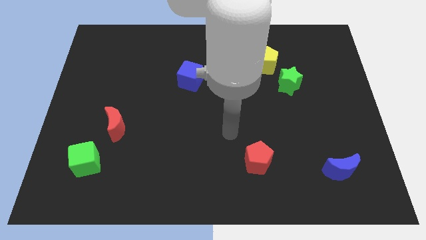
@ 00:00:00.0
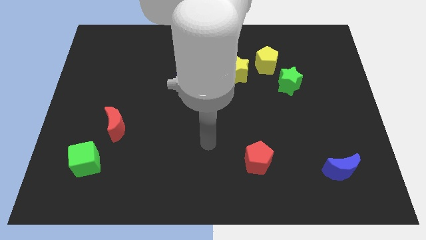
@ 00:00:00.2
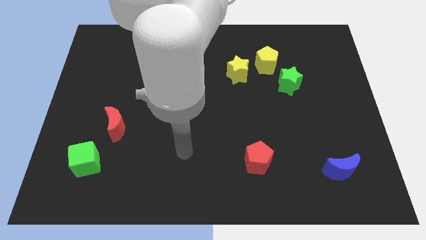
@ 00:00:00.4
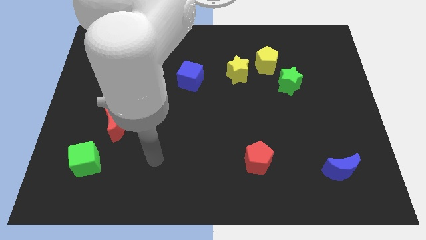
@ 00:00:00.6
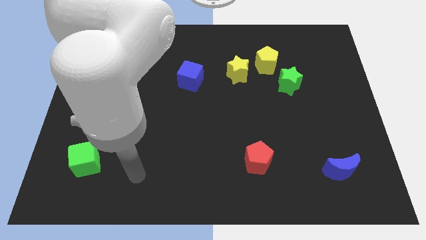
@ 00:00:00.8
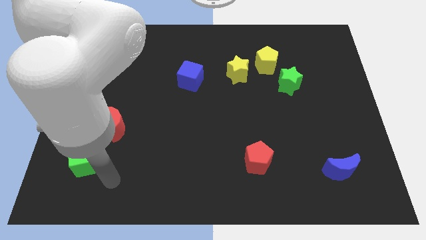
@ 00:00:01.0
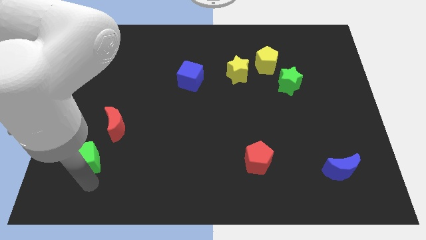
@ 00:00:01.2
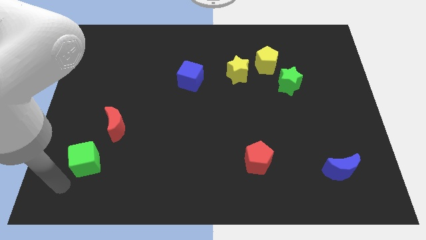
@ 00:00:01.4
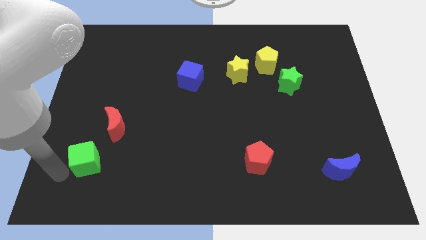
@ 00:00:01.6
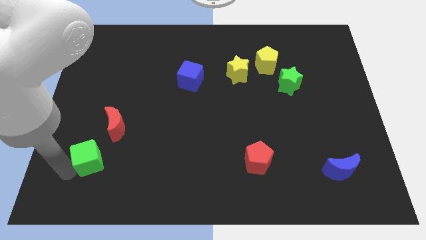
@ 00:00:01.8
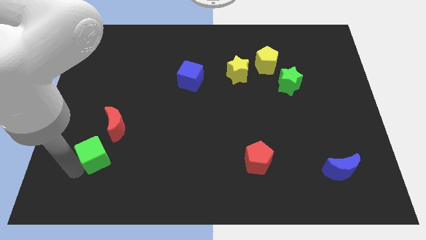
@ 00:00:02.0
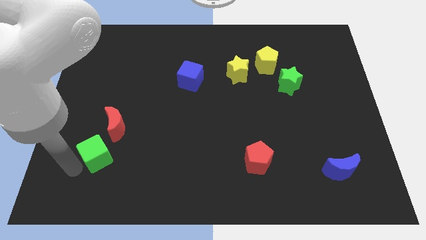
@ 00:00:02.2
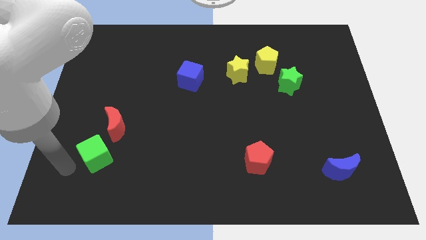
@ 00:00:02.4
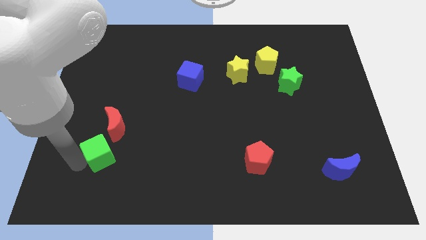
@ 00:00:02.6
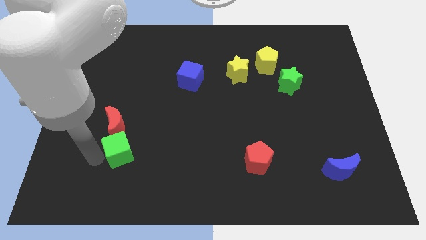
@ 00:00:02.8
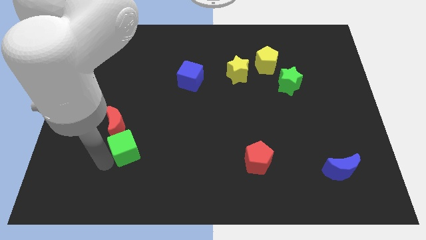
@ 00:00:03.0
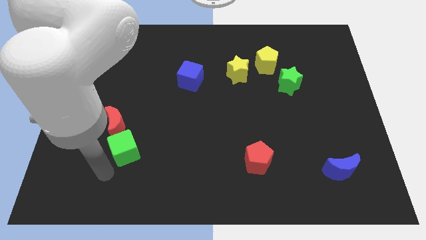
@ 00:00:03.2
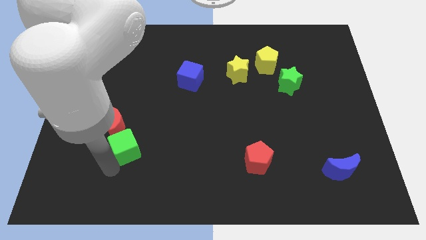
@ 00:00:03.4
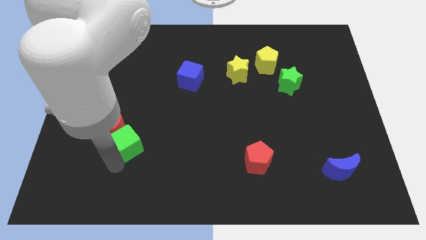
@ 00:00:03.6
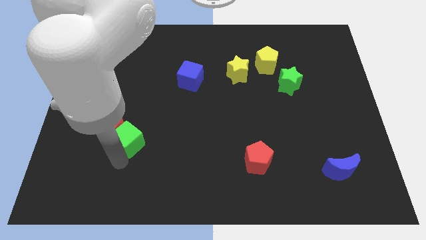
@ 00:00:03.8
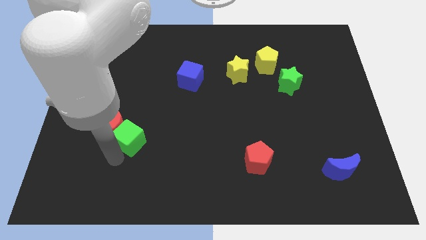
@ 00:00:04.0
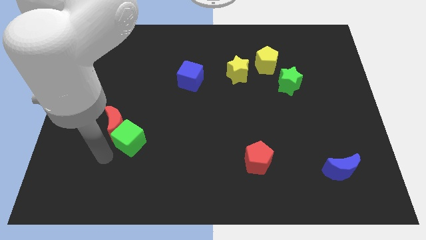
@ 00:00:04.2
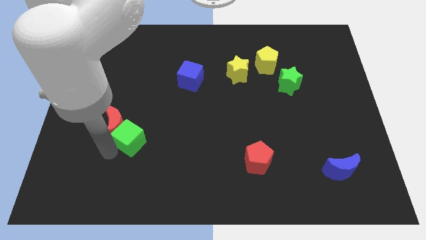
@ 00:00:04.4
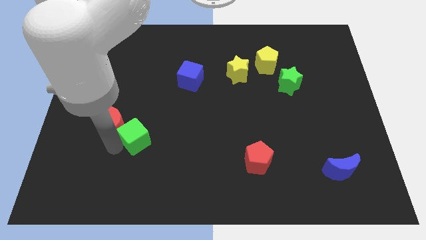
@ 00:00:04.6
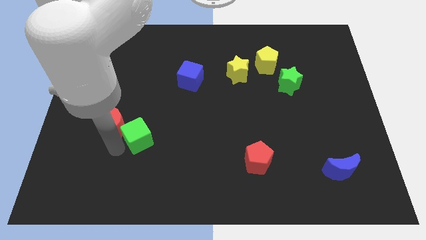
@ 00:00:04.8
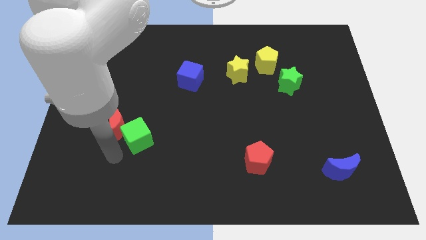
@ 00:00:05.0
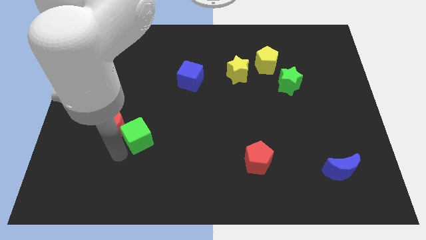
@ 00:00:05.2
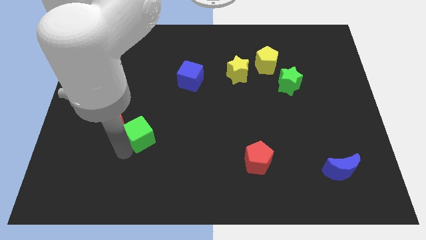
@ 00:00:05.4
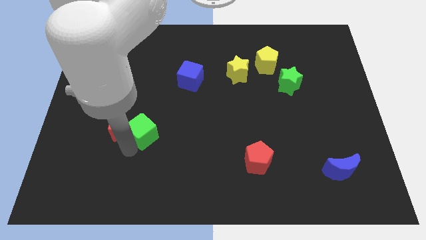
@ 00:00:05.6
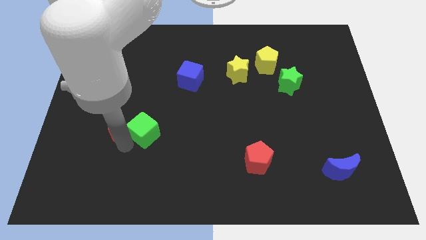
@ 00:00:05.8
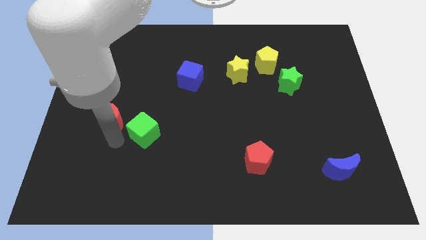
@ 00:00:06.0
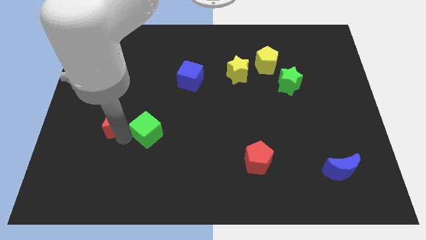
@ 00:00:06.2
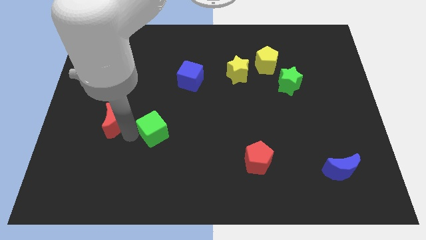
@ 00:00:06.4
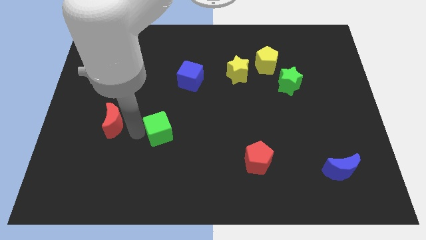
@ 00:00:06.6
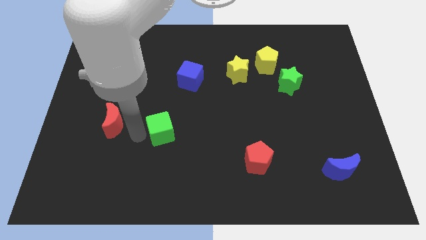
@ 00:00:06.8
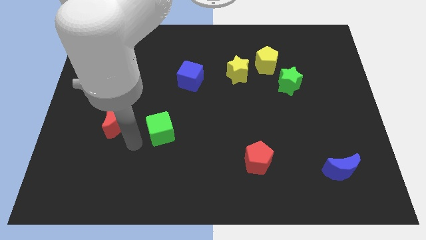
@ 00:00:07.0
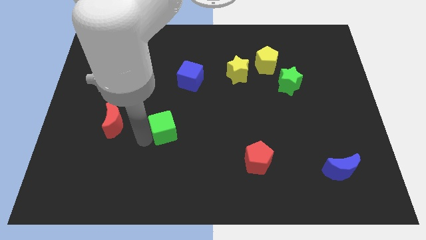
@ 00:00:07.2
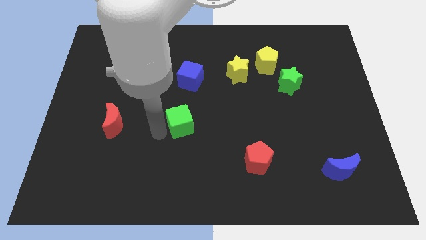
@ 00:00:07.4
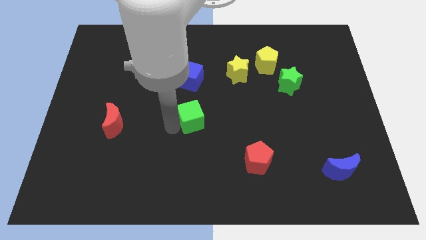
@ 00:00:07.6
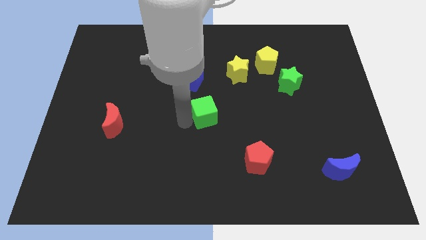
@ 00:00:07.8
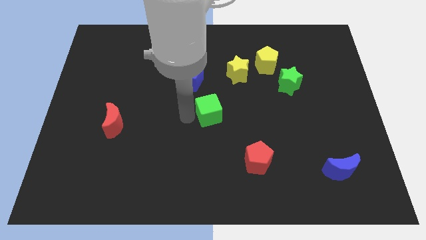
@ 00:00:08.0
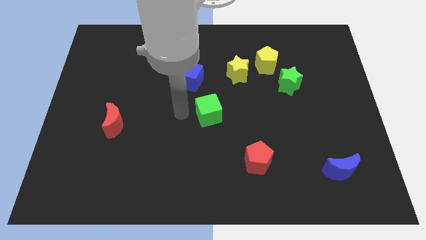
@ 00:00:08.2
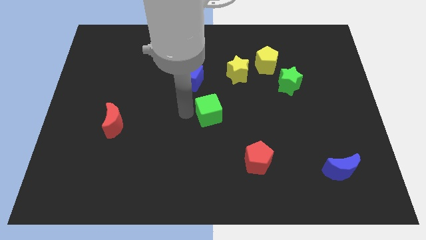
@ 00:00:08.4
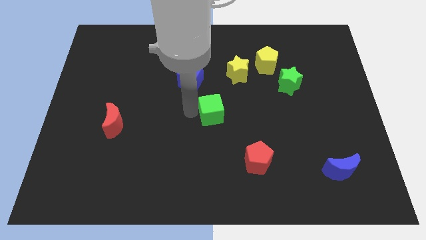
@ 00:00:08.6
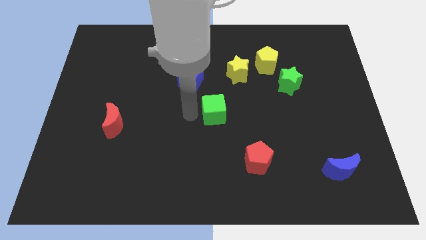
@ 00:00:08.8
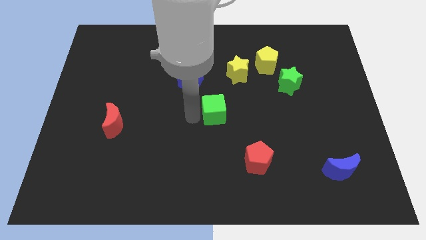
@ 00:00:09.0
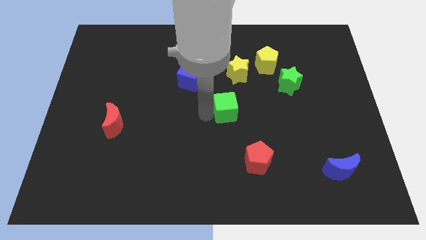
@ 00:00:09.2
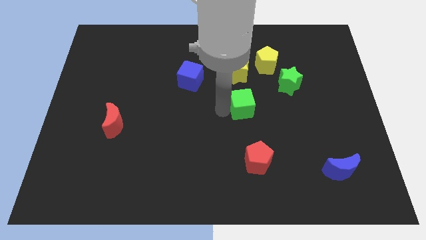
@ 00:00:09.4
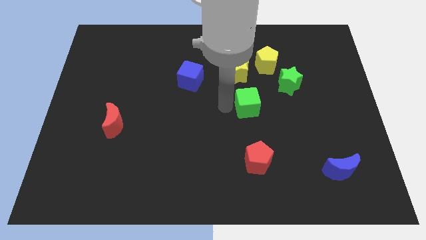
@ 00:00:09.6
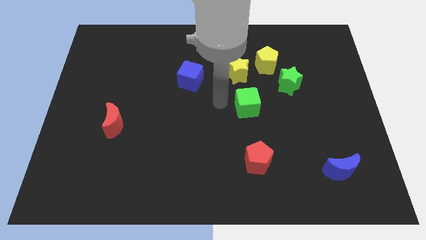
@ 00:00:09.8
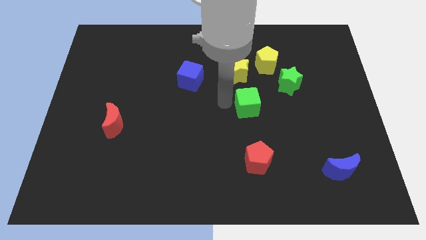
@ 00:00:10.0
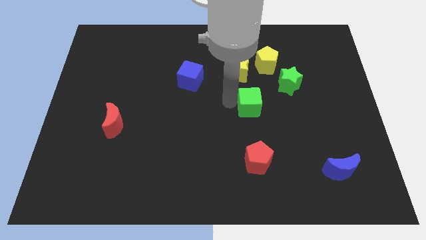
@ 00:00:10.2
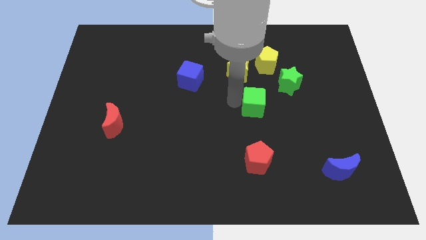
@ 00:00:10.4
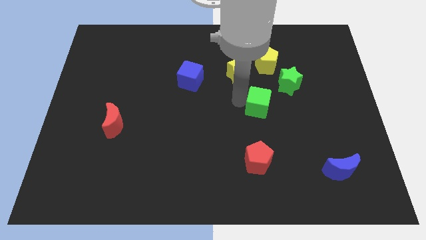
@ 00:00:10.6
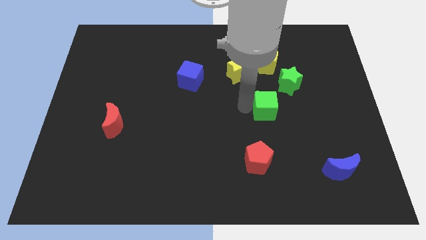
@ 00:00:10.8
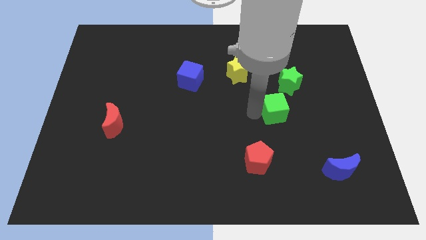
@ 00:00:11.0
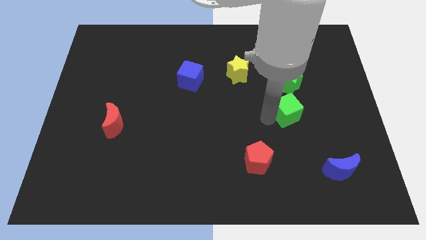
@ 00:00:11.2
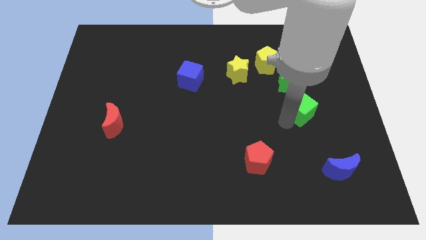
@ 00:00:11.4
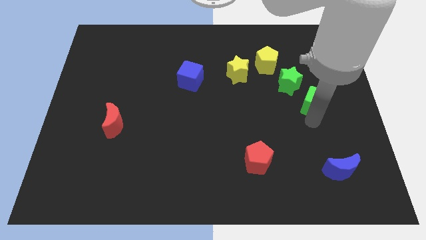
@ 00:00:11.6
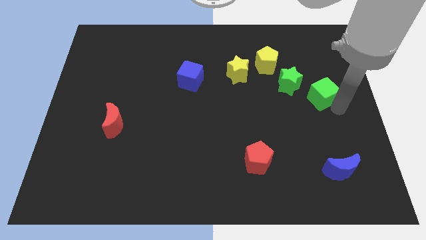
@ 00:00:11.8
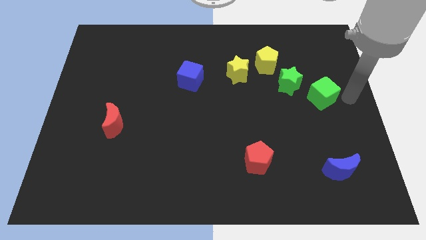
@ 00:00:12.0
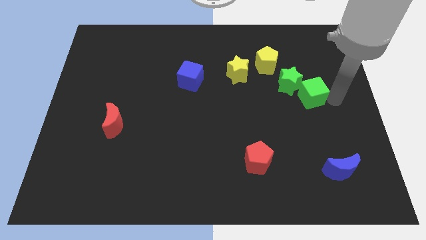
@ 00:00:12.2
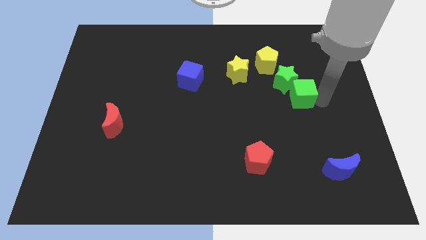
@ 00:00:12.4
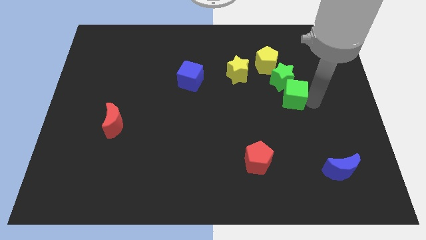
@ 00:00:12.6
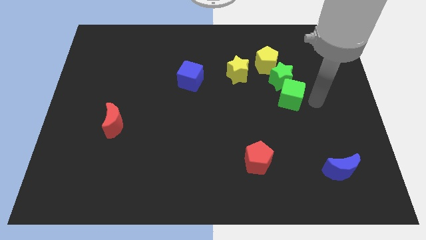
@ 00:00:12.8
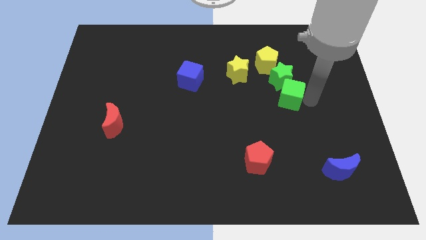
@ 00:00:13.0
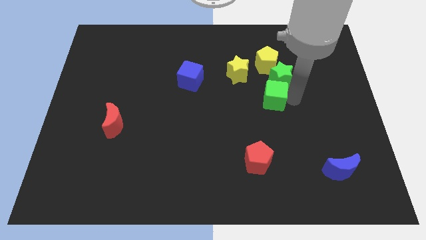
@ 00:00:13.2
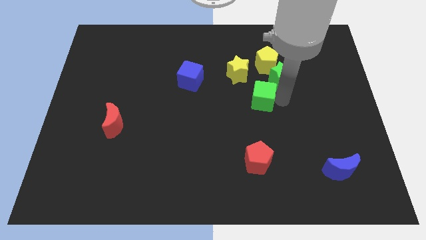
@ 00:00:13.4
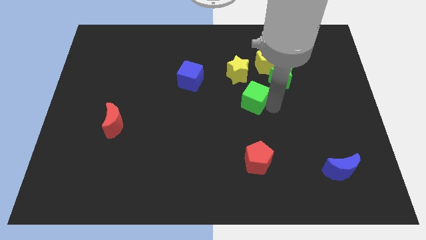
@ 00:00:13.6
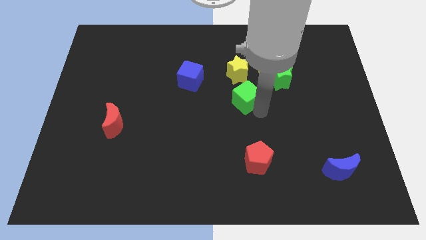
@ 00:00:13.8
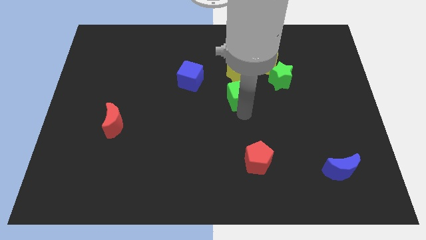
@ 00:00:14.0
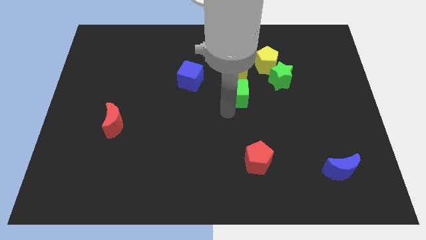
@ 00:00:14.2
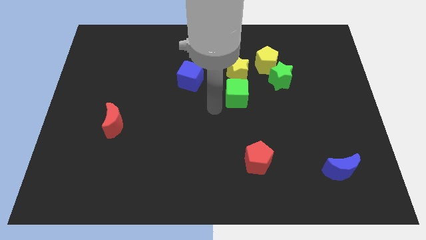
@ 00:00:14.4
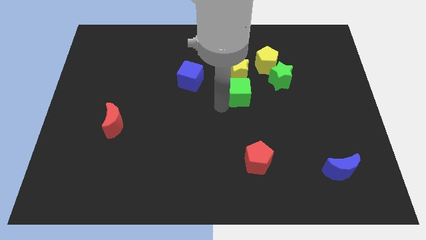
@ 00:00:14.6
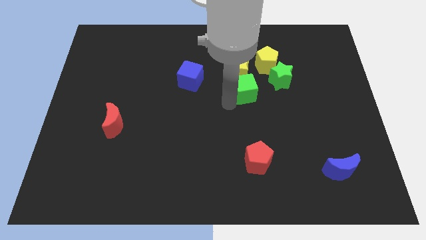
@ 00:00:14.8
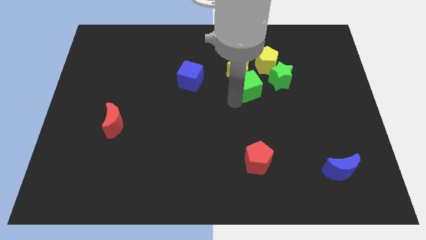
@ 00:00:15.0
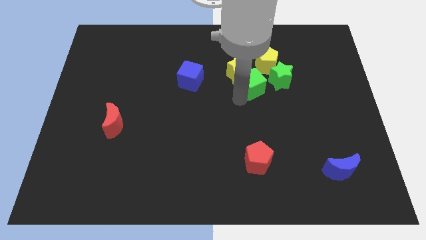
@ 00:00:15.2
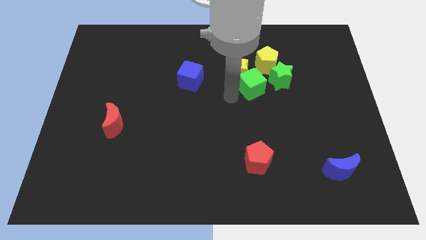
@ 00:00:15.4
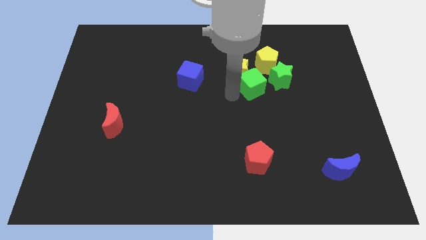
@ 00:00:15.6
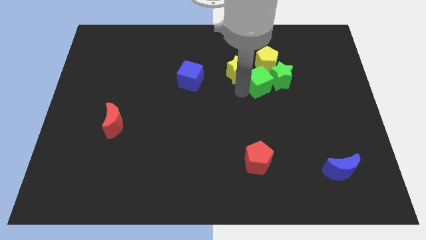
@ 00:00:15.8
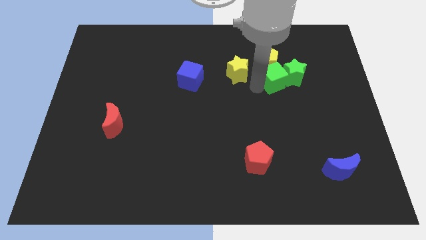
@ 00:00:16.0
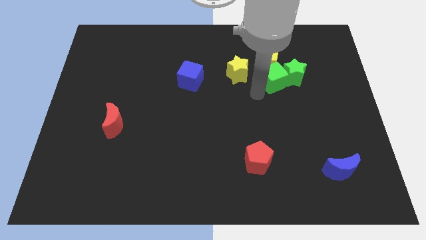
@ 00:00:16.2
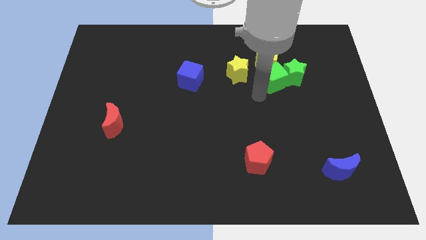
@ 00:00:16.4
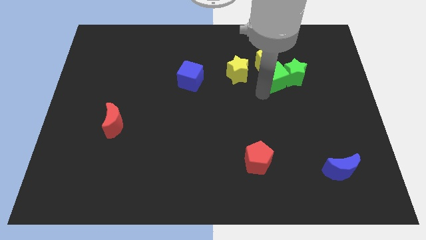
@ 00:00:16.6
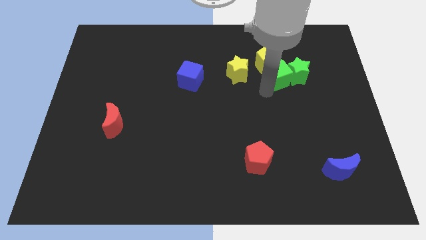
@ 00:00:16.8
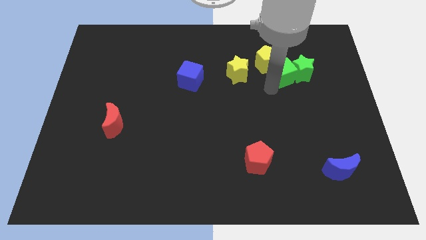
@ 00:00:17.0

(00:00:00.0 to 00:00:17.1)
slide the green cube to the right of the yellow pentagon
